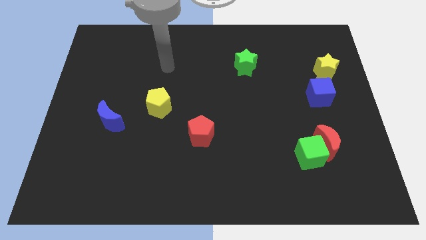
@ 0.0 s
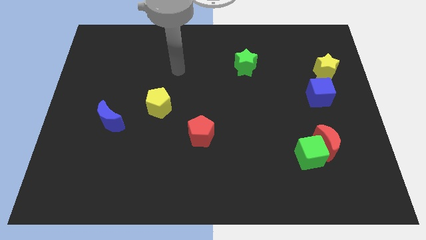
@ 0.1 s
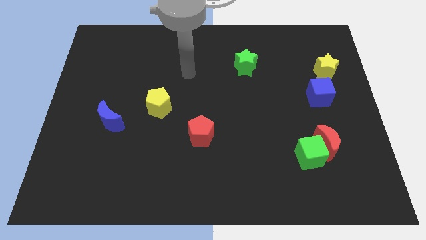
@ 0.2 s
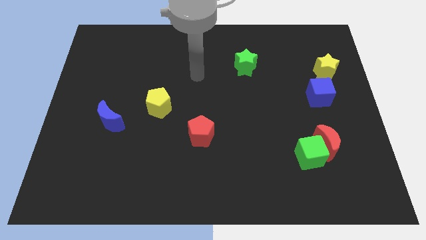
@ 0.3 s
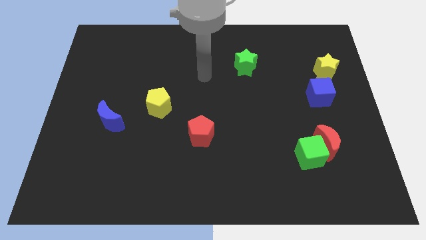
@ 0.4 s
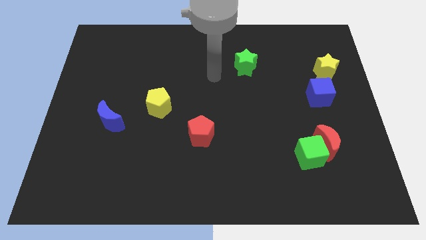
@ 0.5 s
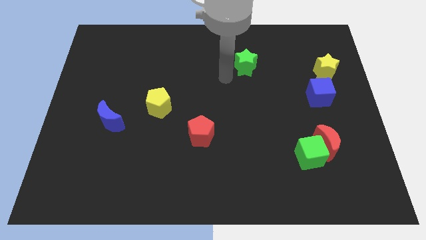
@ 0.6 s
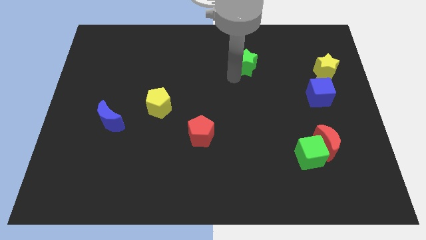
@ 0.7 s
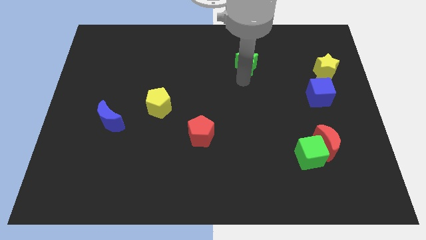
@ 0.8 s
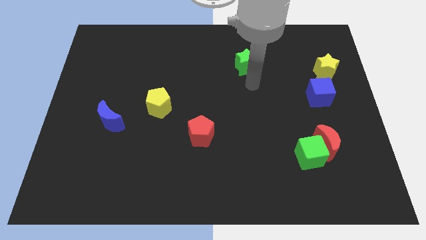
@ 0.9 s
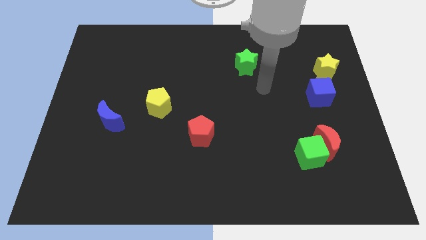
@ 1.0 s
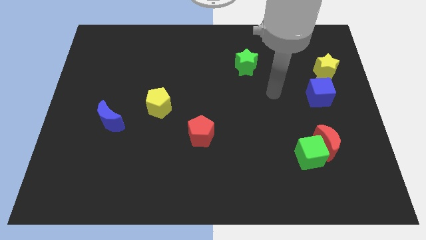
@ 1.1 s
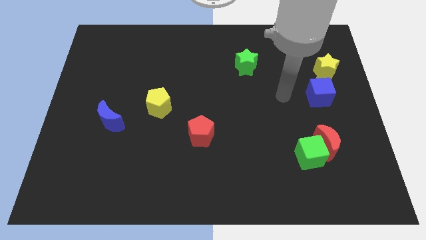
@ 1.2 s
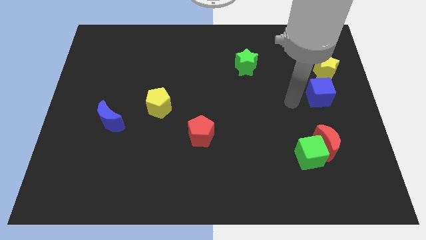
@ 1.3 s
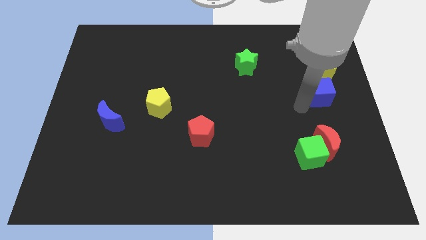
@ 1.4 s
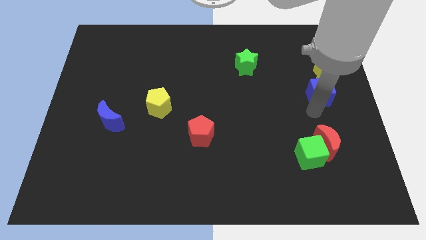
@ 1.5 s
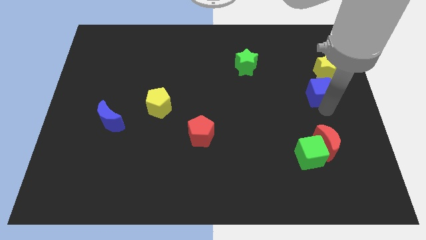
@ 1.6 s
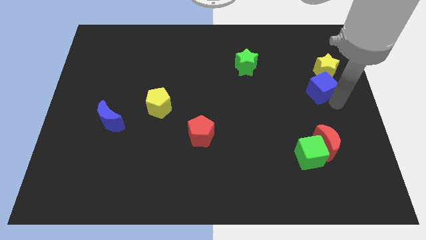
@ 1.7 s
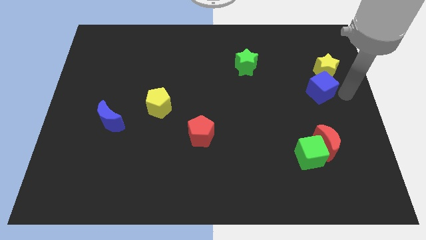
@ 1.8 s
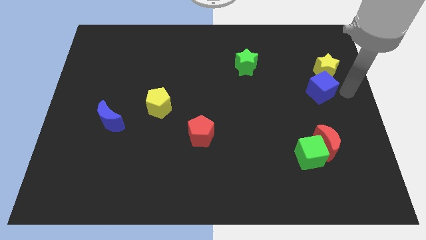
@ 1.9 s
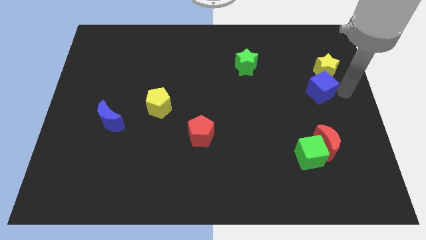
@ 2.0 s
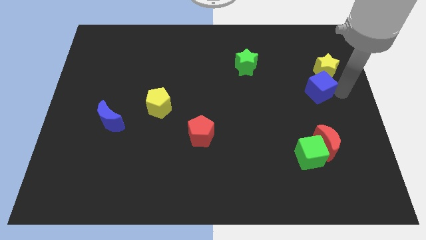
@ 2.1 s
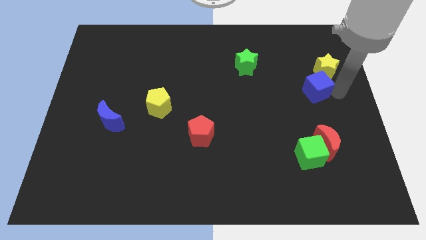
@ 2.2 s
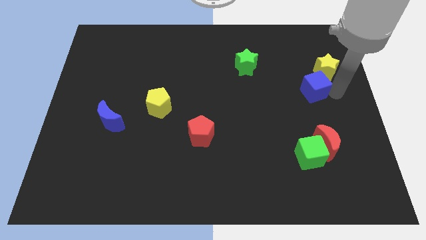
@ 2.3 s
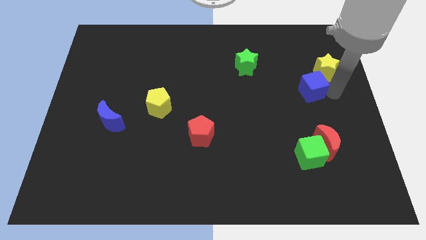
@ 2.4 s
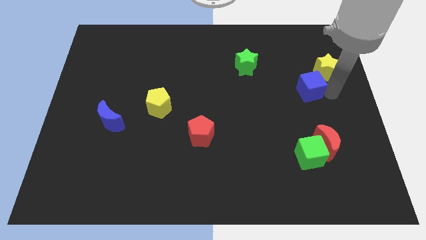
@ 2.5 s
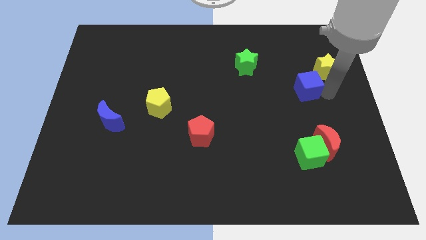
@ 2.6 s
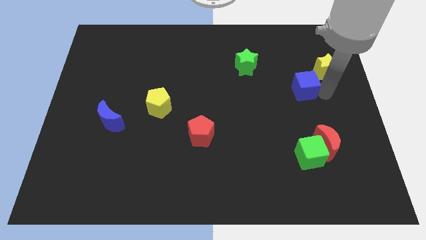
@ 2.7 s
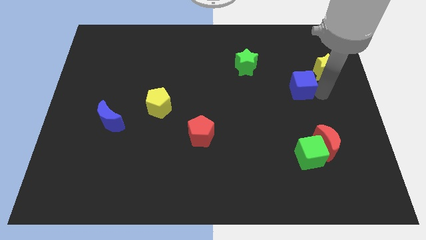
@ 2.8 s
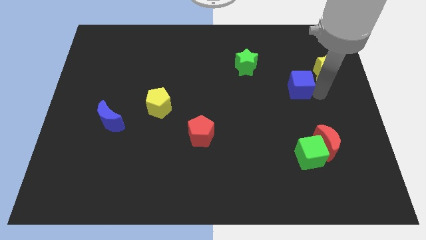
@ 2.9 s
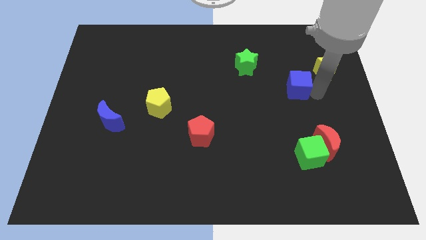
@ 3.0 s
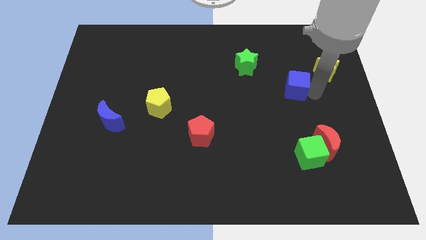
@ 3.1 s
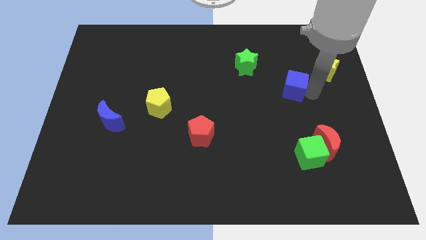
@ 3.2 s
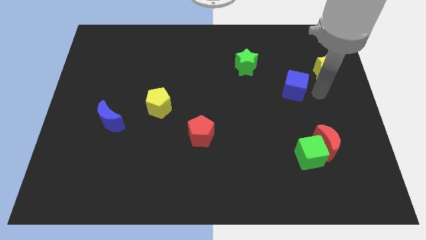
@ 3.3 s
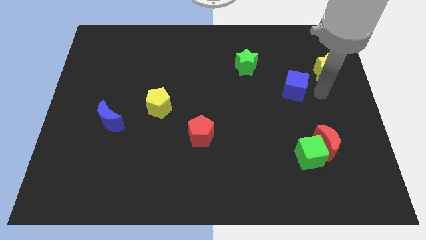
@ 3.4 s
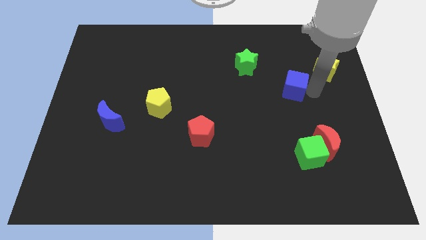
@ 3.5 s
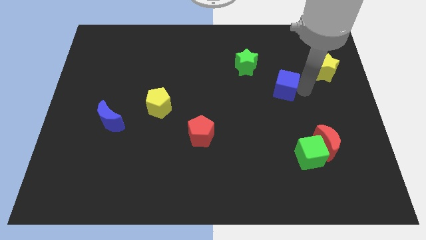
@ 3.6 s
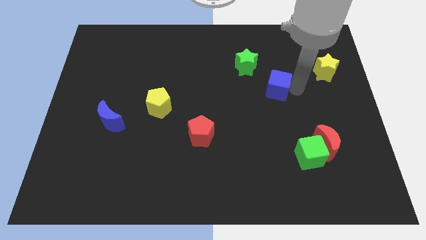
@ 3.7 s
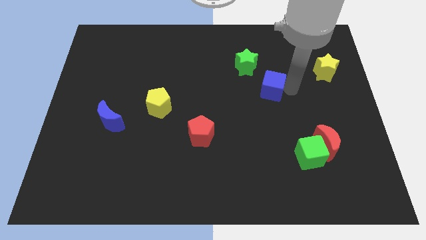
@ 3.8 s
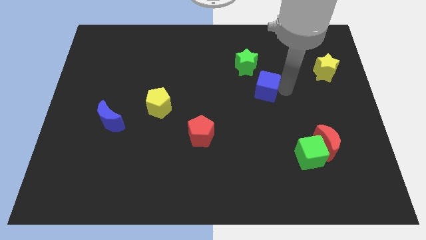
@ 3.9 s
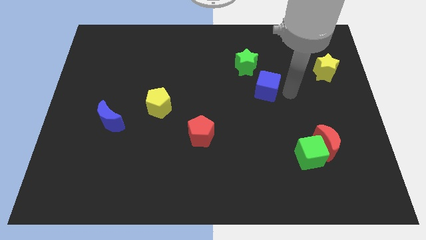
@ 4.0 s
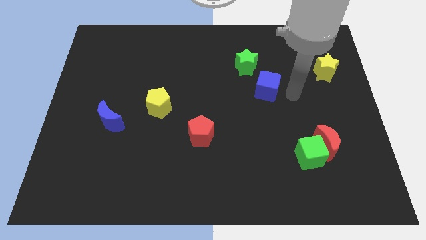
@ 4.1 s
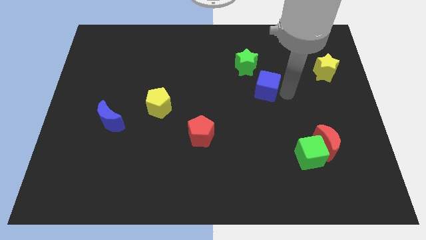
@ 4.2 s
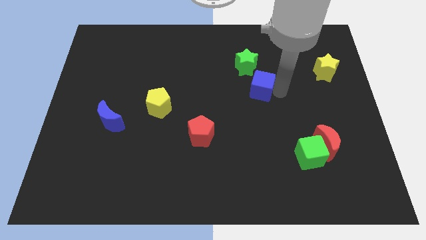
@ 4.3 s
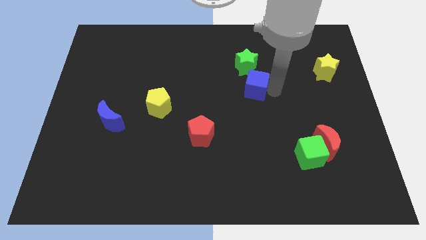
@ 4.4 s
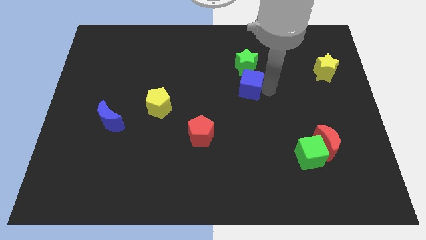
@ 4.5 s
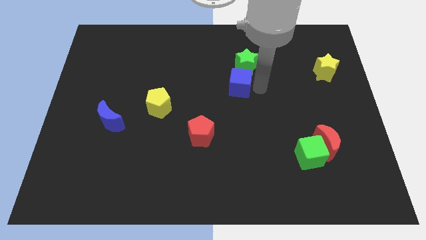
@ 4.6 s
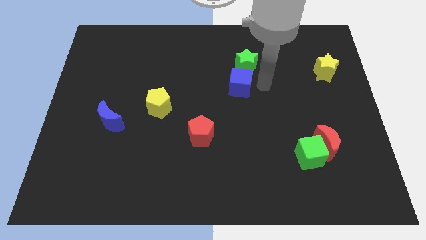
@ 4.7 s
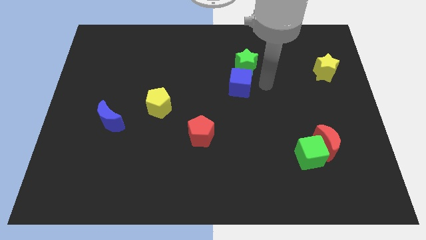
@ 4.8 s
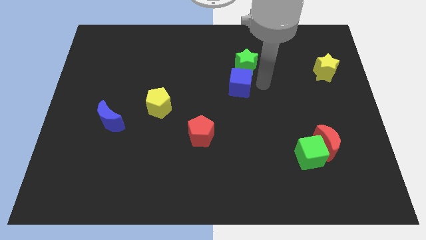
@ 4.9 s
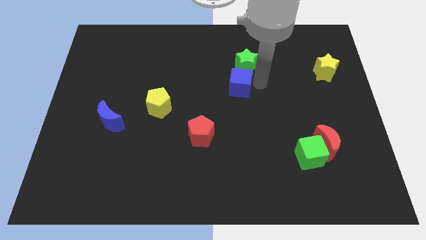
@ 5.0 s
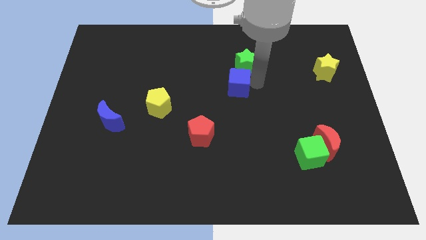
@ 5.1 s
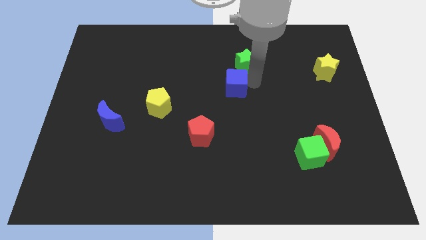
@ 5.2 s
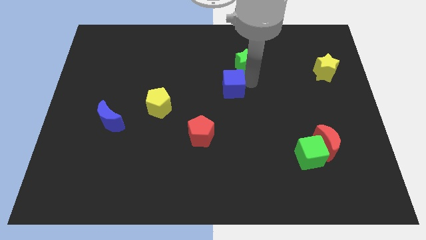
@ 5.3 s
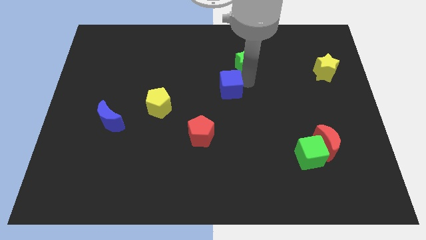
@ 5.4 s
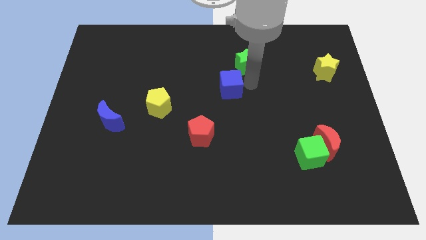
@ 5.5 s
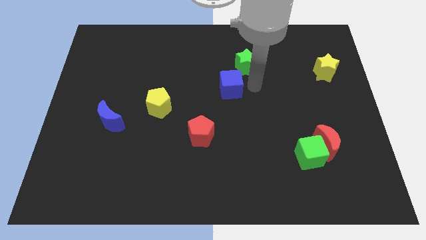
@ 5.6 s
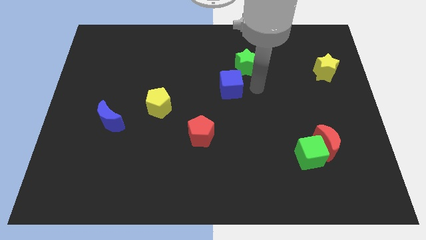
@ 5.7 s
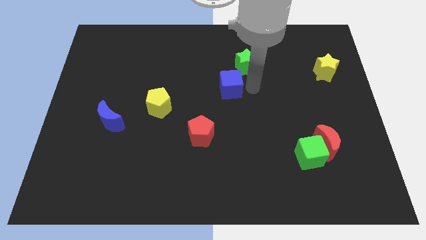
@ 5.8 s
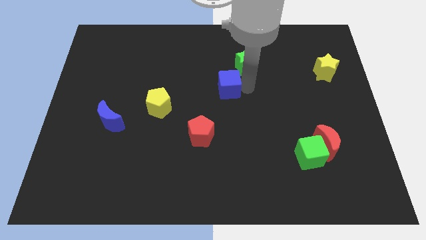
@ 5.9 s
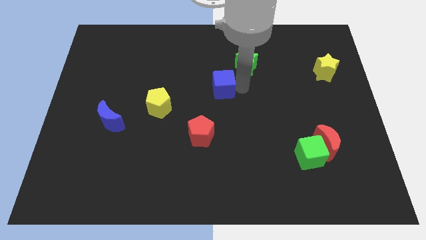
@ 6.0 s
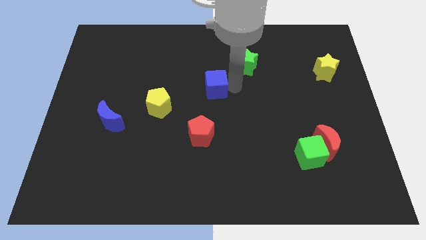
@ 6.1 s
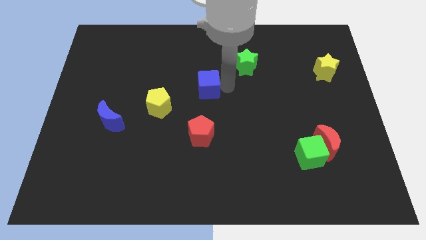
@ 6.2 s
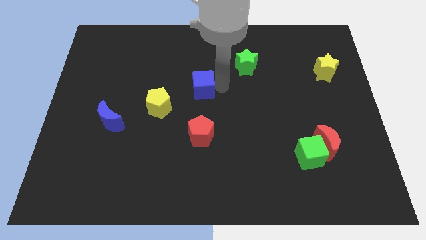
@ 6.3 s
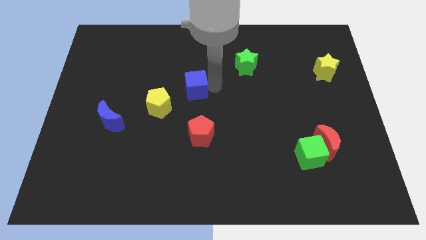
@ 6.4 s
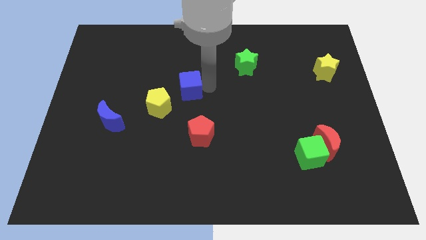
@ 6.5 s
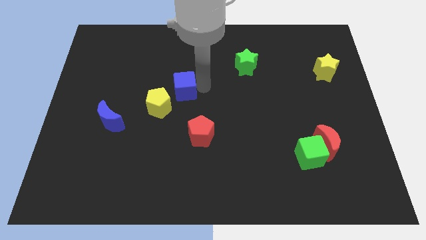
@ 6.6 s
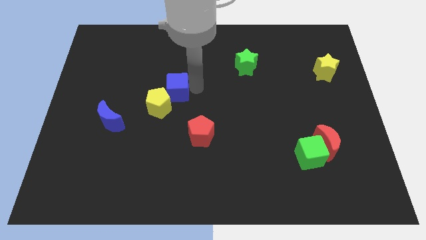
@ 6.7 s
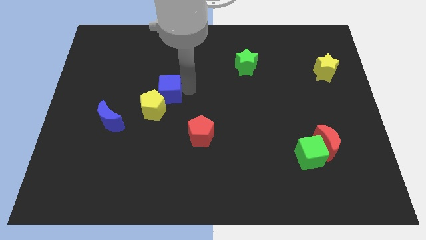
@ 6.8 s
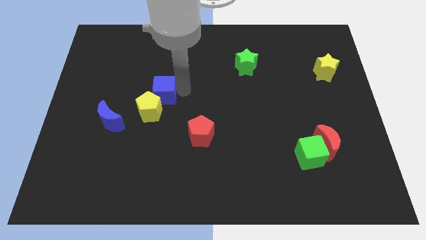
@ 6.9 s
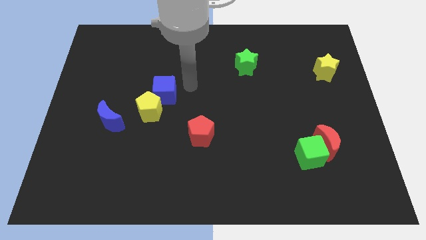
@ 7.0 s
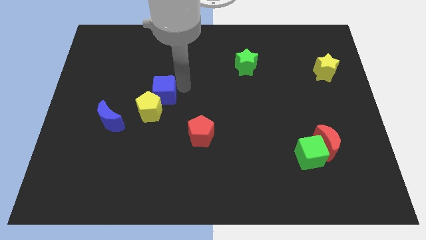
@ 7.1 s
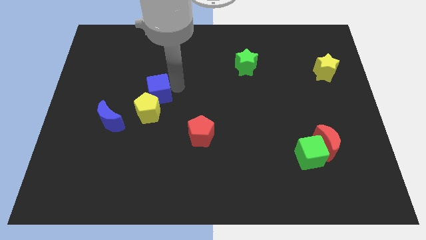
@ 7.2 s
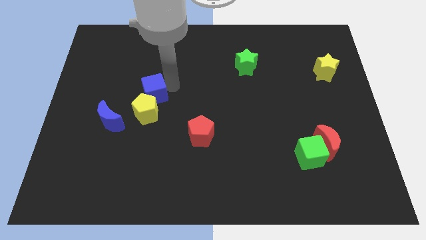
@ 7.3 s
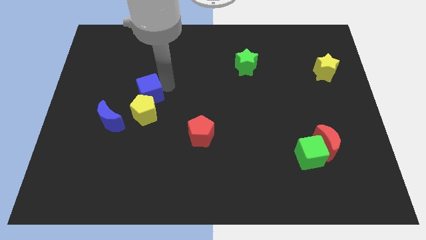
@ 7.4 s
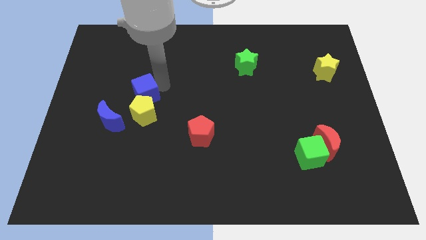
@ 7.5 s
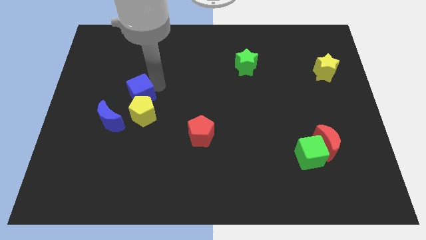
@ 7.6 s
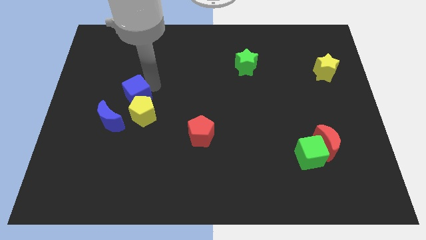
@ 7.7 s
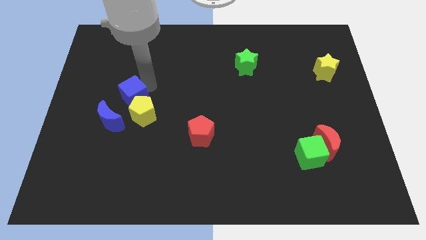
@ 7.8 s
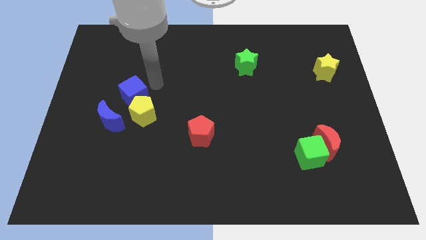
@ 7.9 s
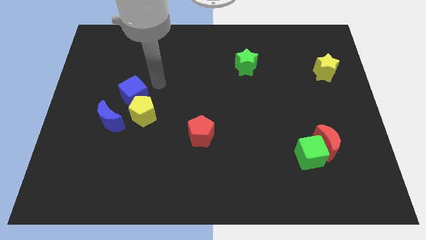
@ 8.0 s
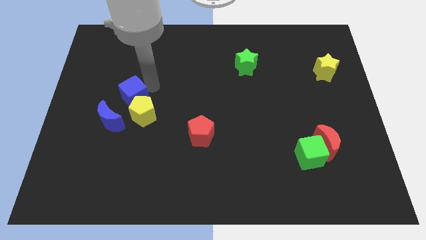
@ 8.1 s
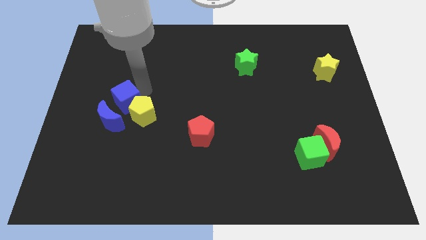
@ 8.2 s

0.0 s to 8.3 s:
push the blue cube to the left of the yellow pentagon
